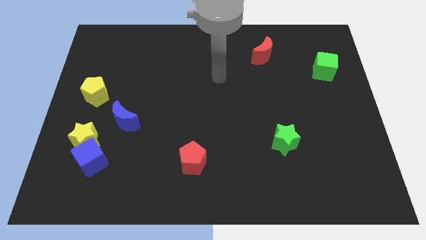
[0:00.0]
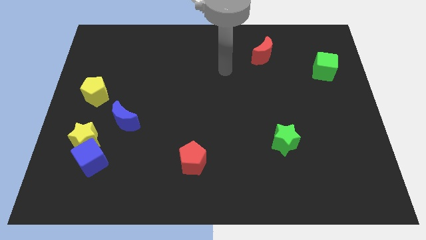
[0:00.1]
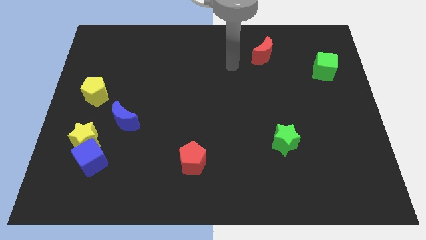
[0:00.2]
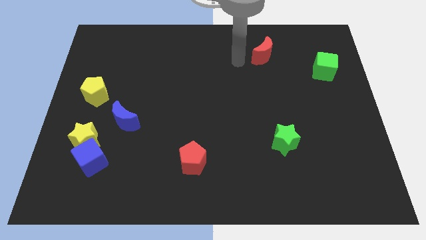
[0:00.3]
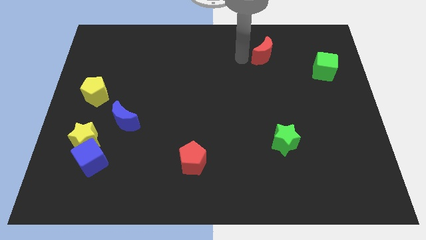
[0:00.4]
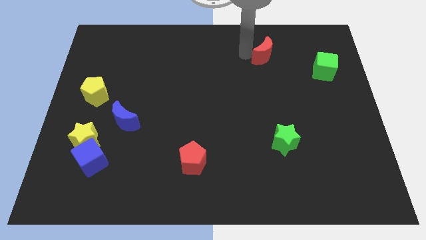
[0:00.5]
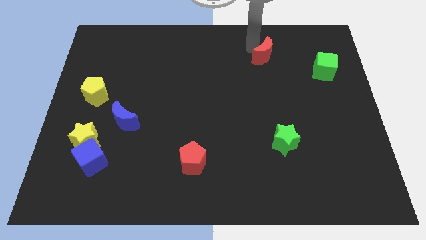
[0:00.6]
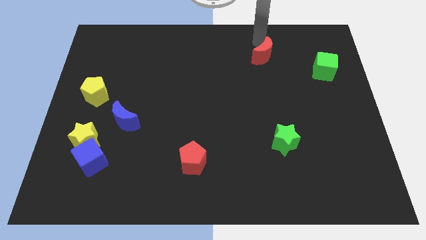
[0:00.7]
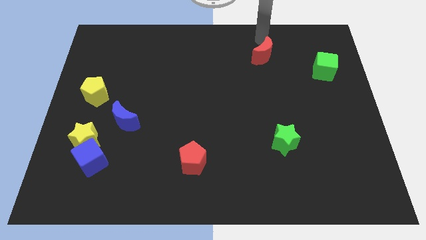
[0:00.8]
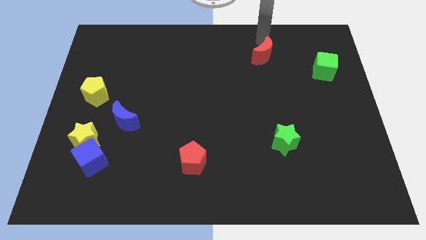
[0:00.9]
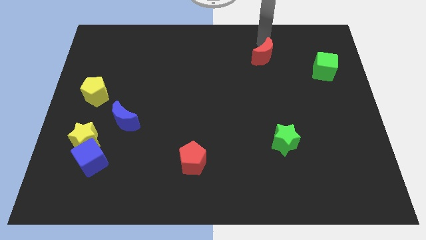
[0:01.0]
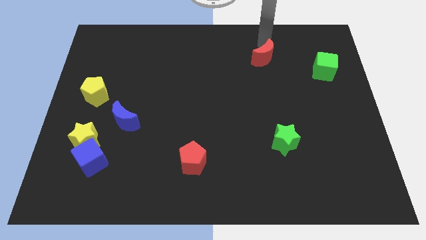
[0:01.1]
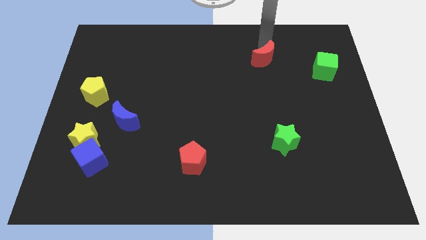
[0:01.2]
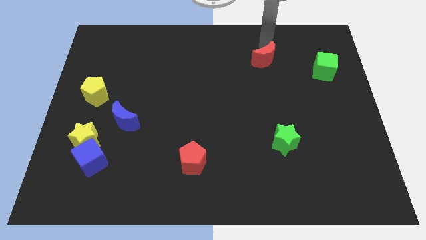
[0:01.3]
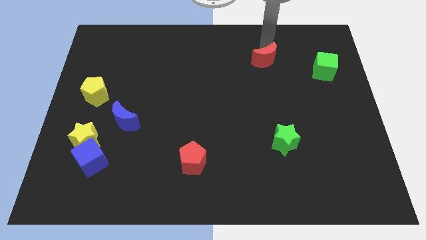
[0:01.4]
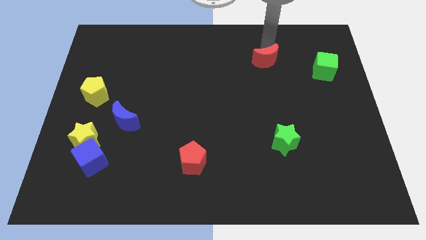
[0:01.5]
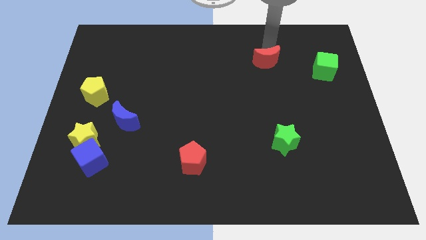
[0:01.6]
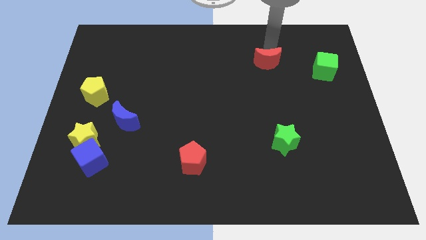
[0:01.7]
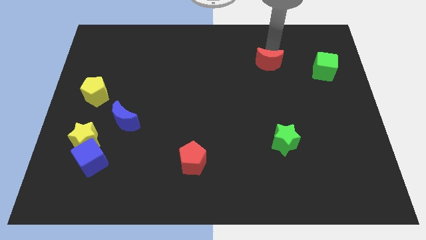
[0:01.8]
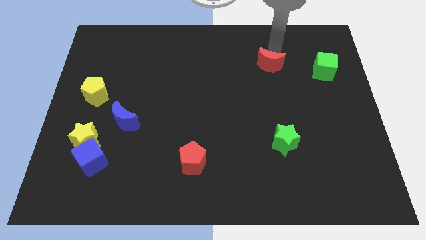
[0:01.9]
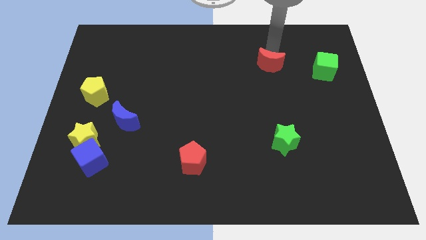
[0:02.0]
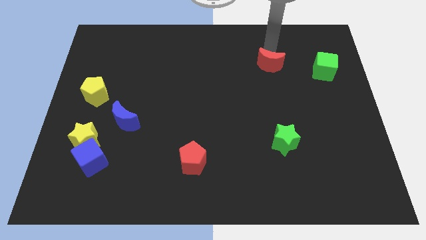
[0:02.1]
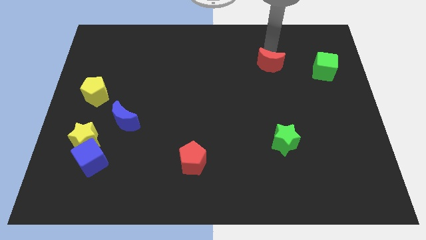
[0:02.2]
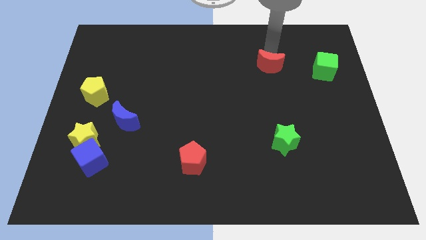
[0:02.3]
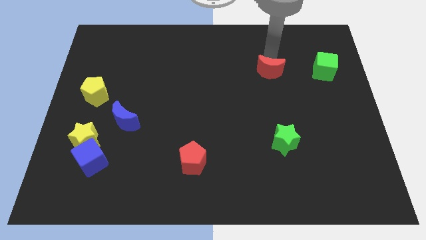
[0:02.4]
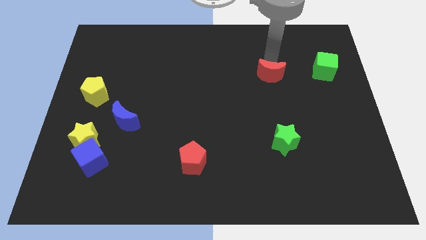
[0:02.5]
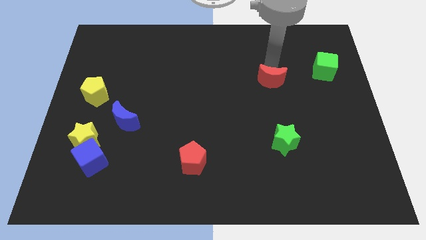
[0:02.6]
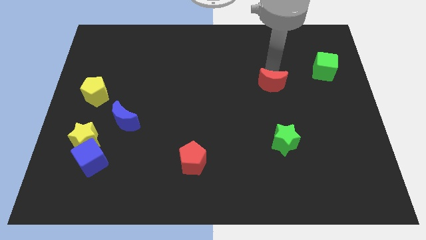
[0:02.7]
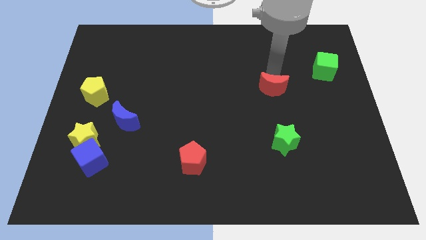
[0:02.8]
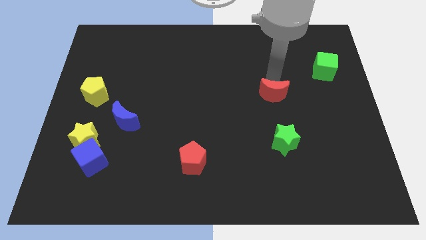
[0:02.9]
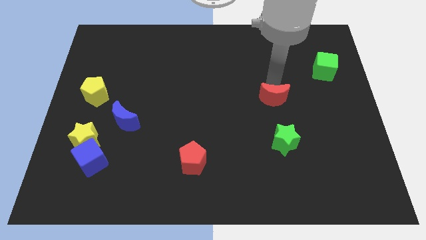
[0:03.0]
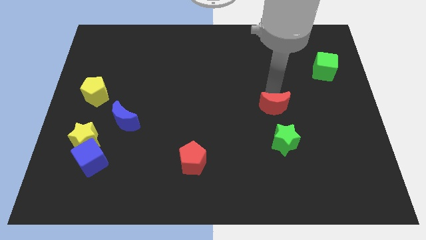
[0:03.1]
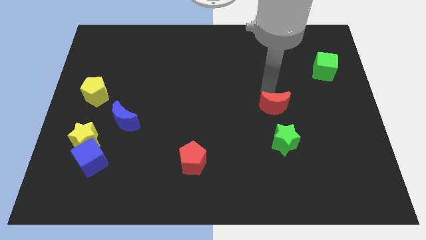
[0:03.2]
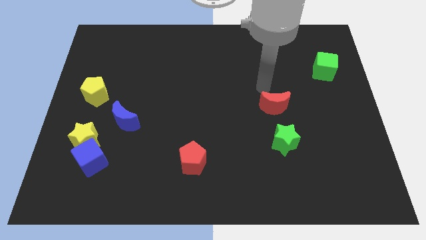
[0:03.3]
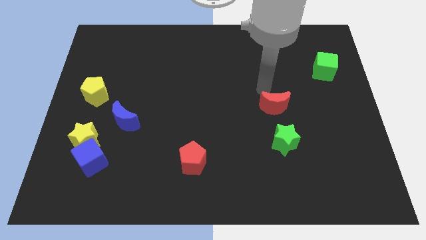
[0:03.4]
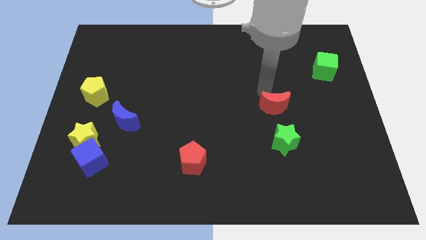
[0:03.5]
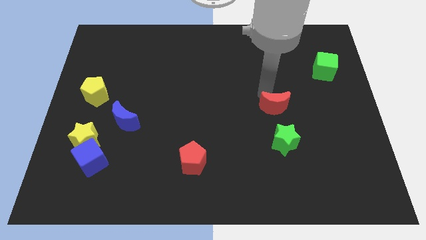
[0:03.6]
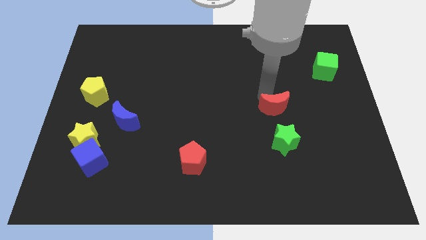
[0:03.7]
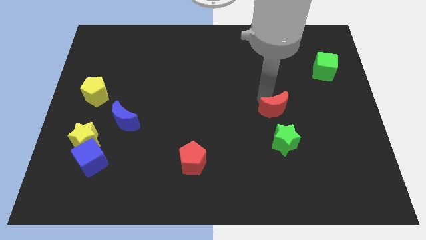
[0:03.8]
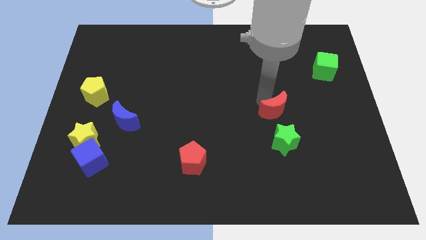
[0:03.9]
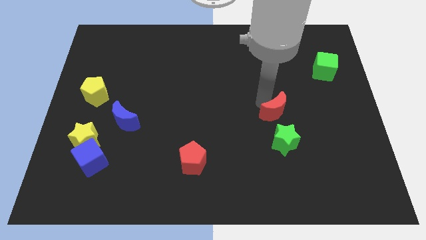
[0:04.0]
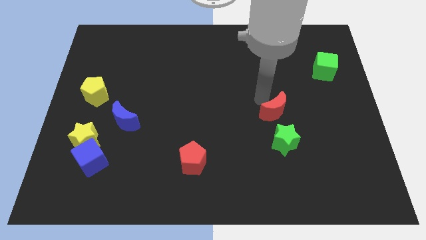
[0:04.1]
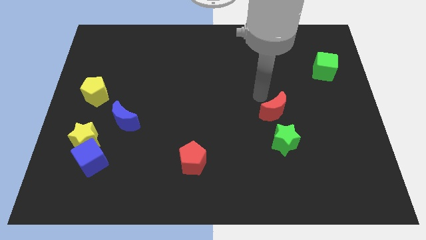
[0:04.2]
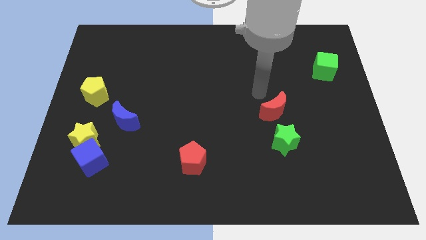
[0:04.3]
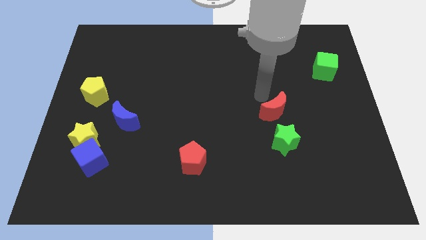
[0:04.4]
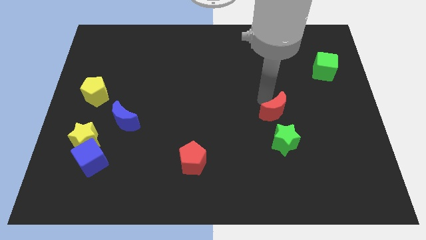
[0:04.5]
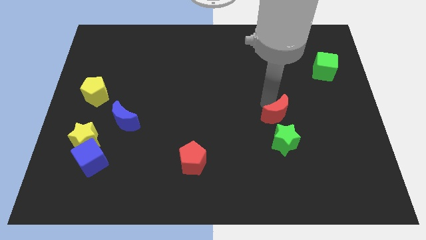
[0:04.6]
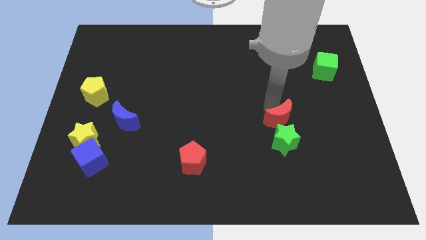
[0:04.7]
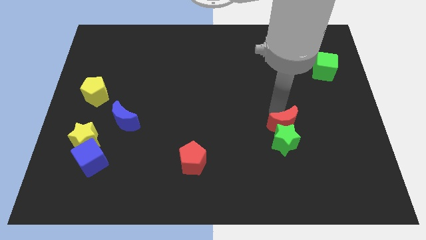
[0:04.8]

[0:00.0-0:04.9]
put the red moon towards the green star

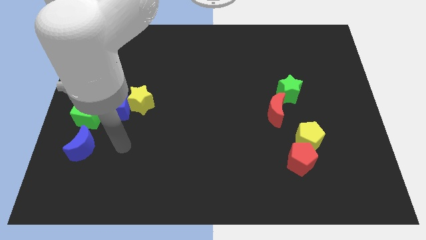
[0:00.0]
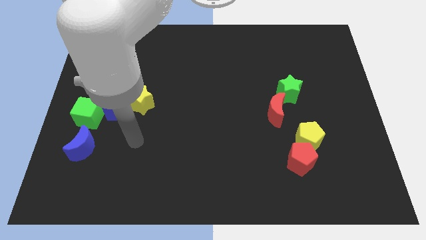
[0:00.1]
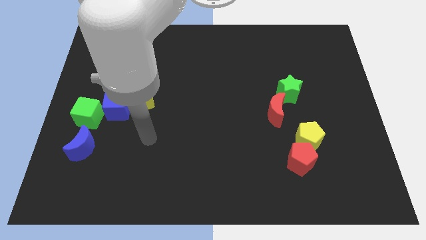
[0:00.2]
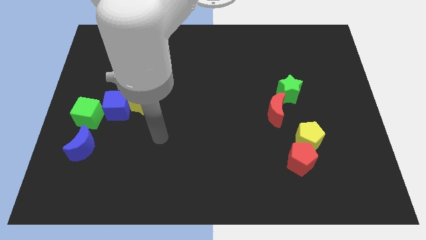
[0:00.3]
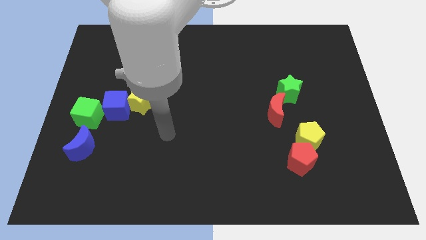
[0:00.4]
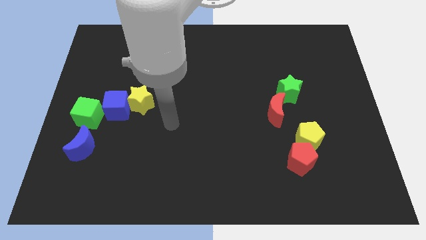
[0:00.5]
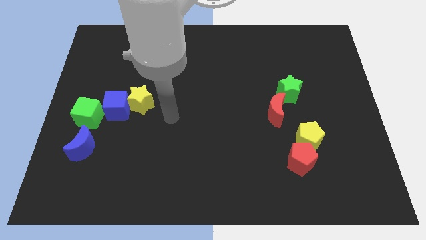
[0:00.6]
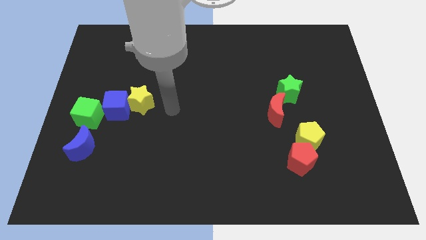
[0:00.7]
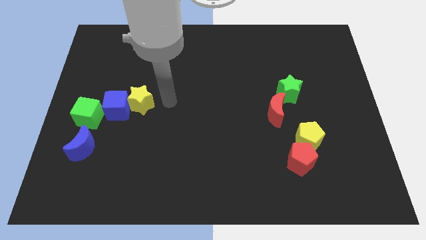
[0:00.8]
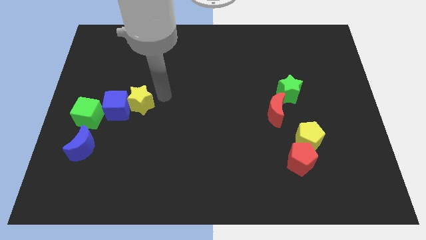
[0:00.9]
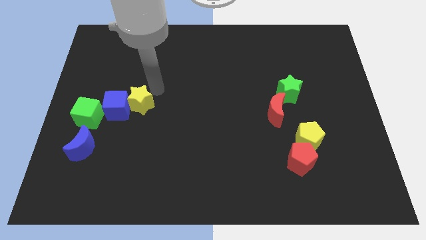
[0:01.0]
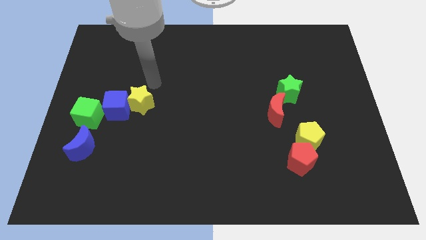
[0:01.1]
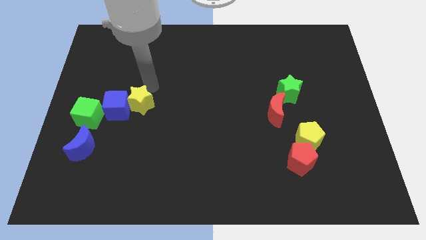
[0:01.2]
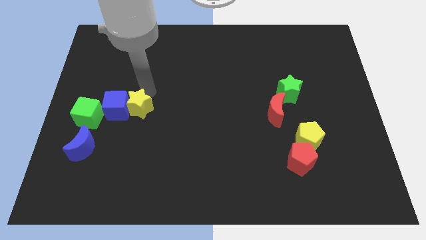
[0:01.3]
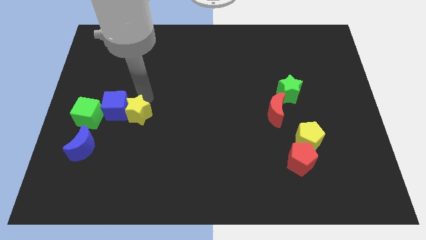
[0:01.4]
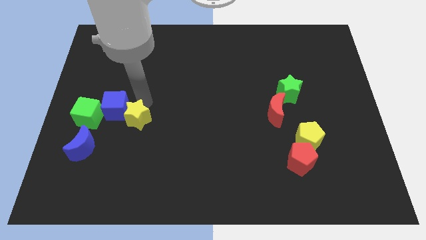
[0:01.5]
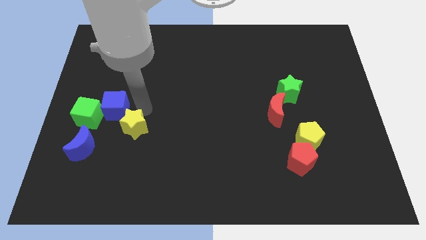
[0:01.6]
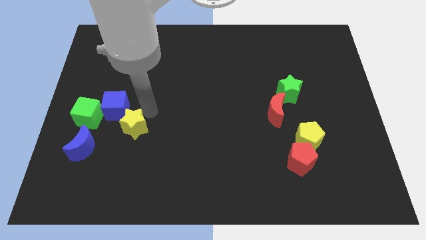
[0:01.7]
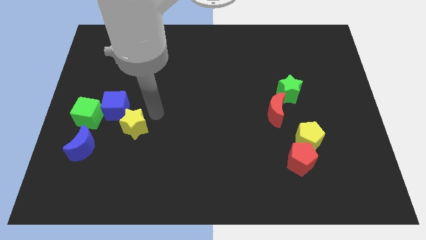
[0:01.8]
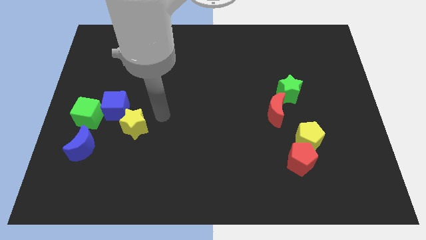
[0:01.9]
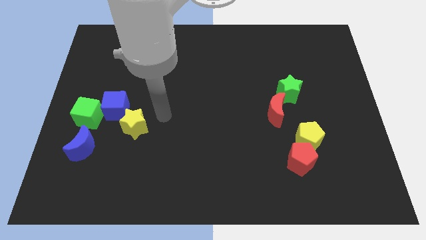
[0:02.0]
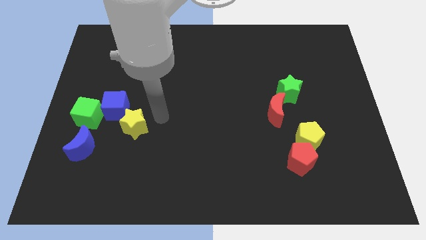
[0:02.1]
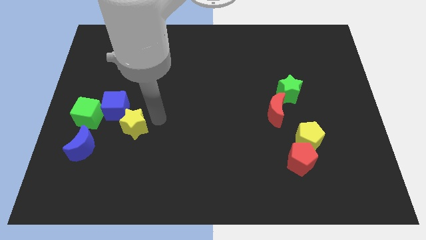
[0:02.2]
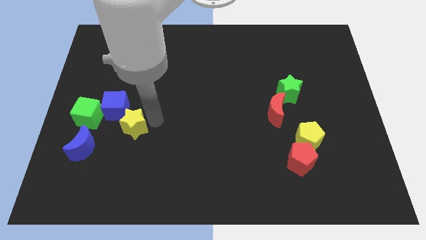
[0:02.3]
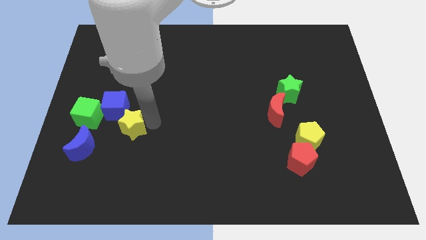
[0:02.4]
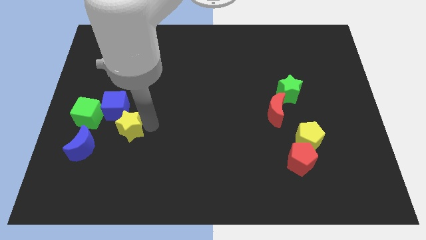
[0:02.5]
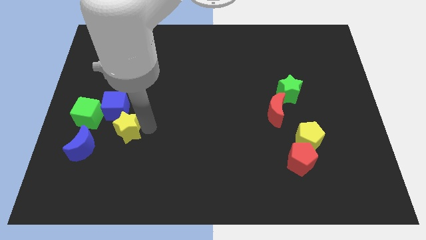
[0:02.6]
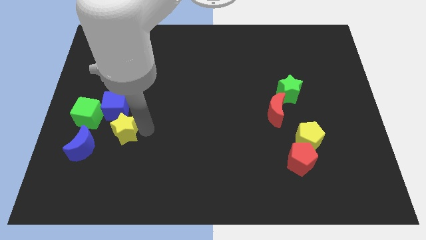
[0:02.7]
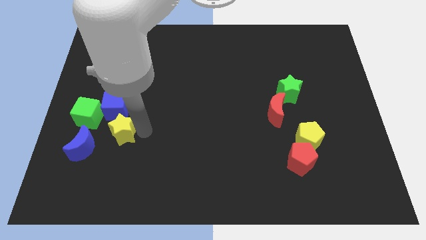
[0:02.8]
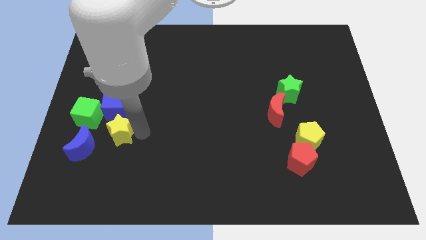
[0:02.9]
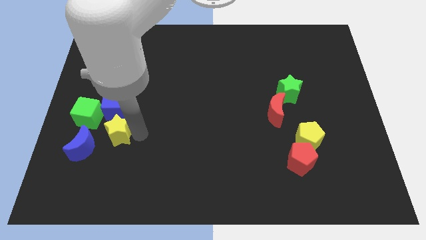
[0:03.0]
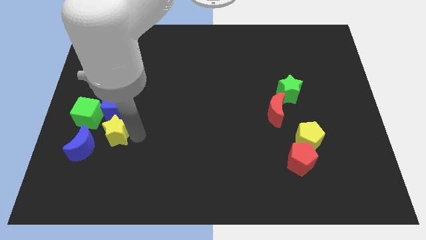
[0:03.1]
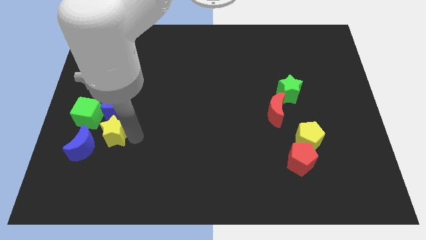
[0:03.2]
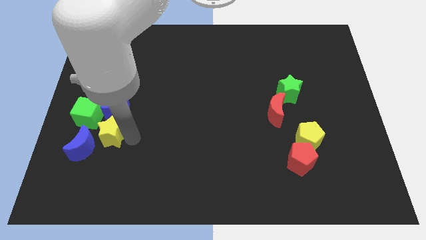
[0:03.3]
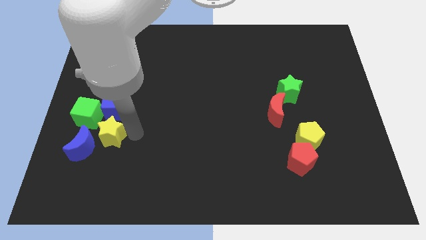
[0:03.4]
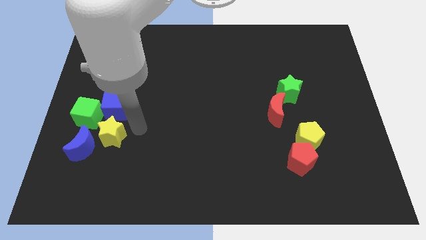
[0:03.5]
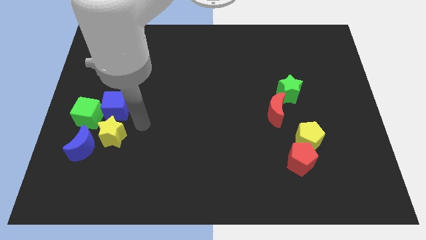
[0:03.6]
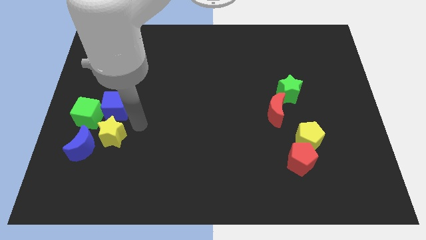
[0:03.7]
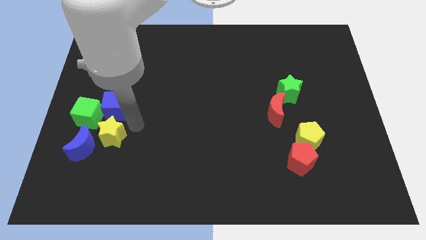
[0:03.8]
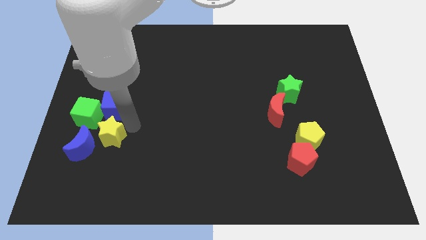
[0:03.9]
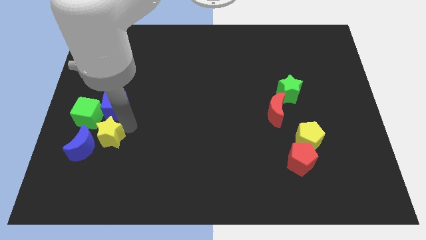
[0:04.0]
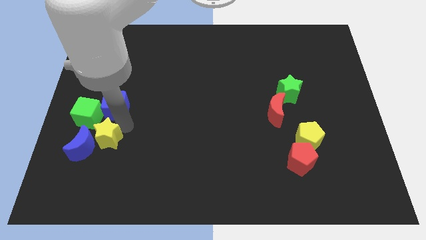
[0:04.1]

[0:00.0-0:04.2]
slide the yellow star towards the blue moon
